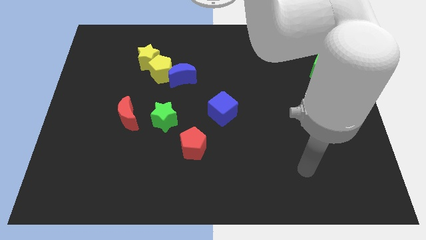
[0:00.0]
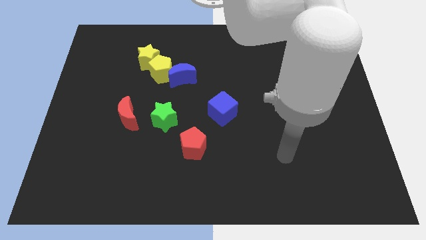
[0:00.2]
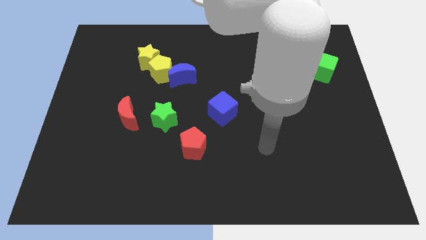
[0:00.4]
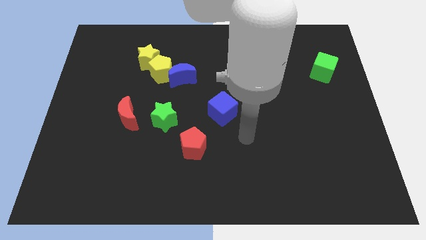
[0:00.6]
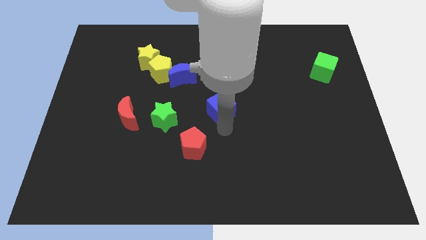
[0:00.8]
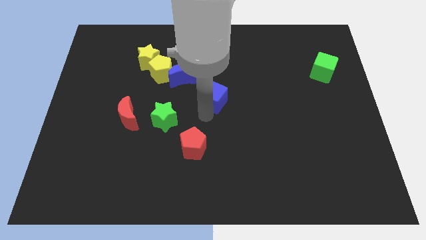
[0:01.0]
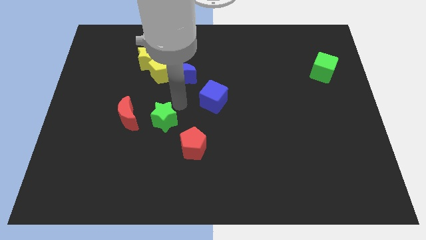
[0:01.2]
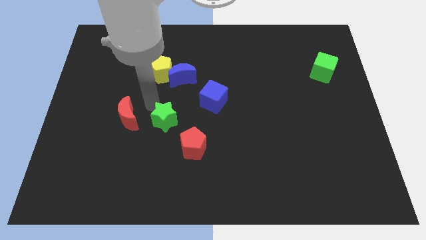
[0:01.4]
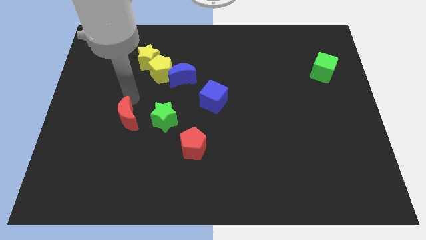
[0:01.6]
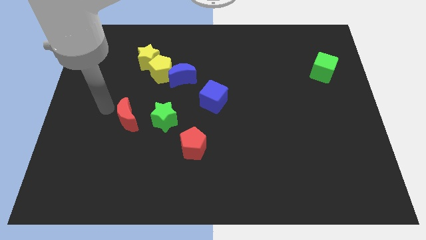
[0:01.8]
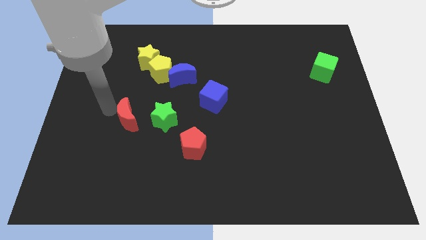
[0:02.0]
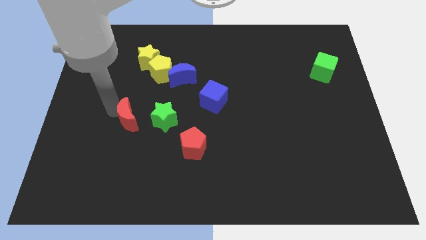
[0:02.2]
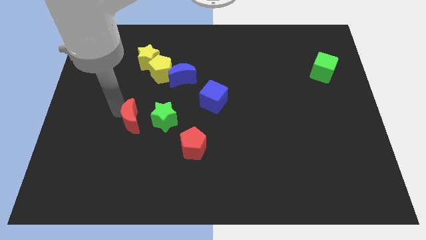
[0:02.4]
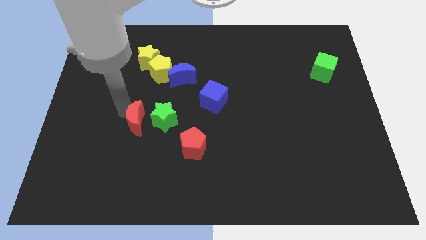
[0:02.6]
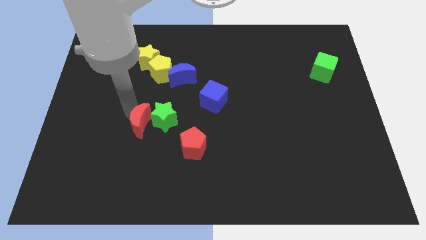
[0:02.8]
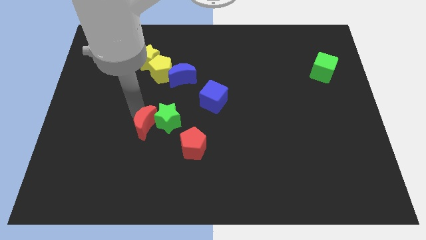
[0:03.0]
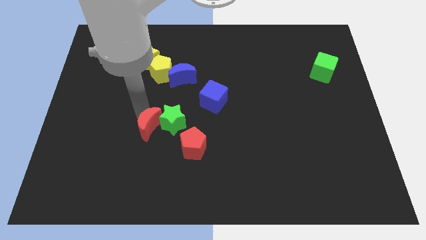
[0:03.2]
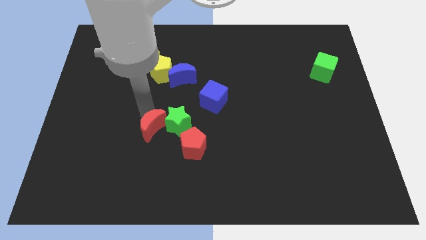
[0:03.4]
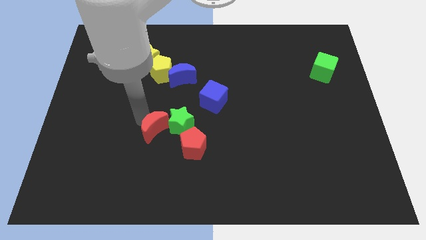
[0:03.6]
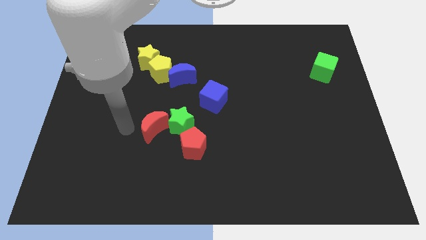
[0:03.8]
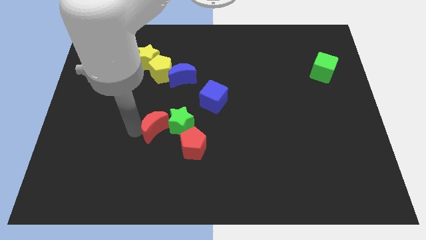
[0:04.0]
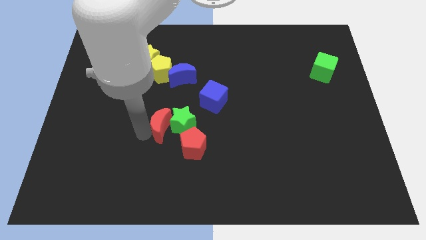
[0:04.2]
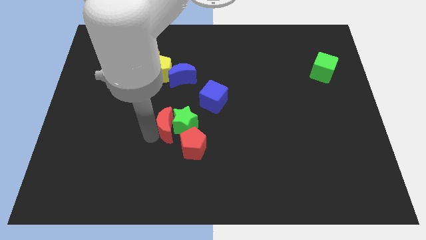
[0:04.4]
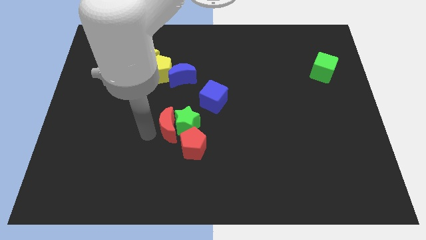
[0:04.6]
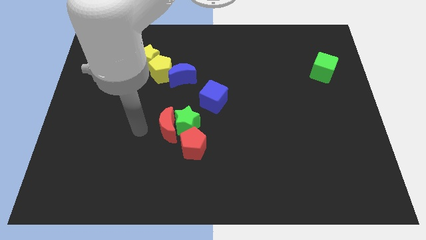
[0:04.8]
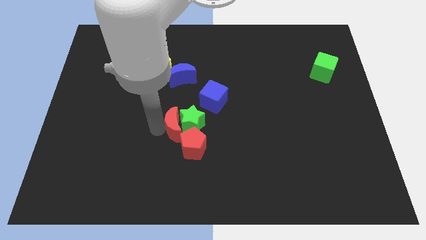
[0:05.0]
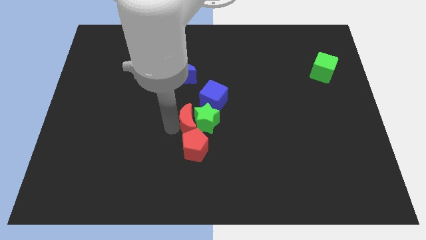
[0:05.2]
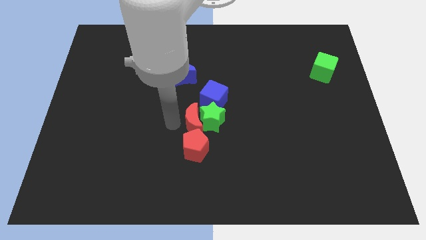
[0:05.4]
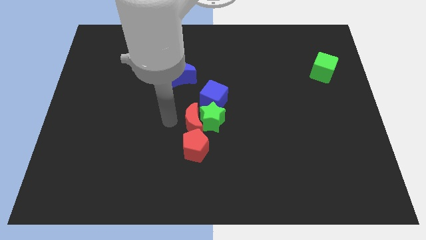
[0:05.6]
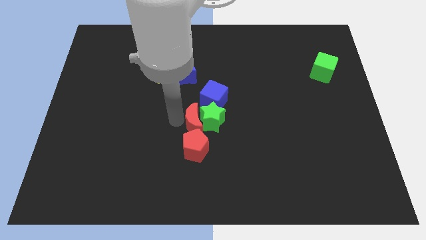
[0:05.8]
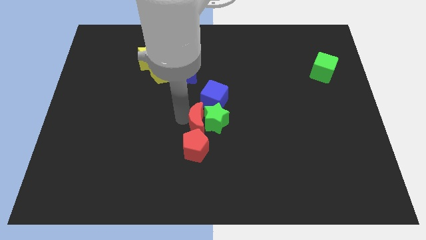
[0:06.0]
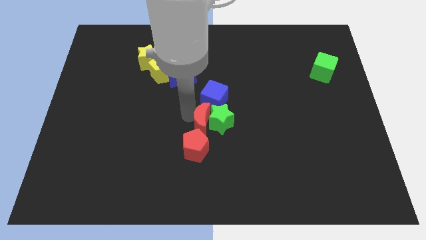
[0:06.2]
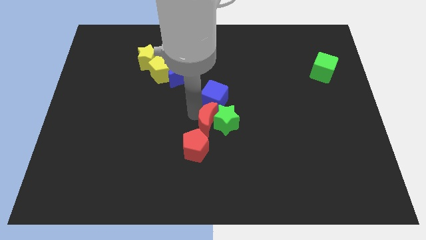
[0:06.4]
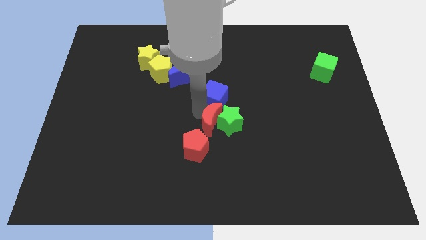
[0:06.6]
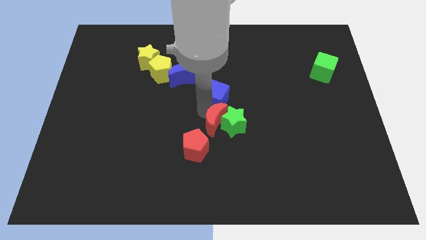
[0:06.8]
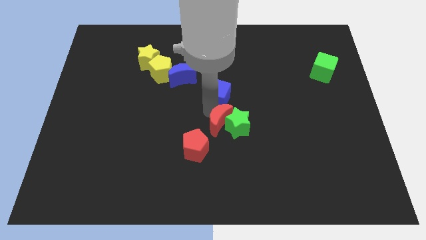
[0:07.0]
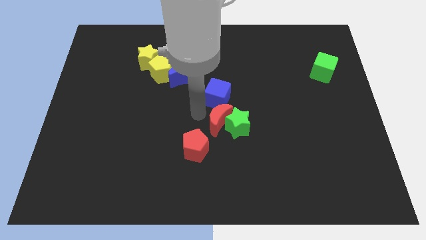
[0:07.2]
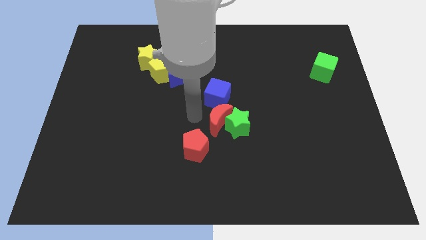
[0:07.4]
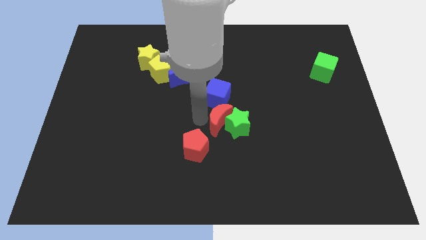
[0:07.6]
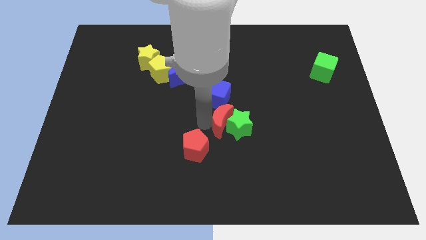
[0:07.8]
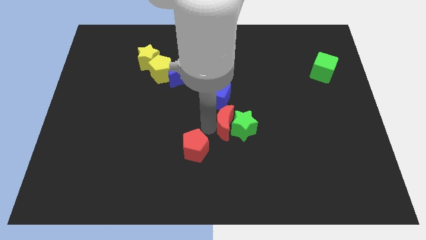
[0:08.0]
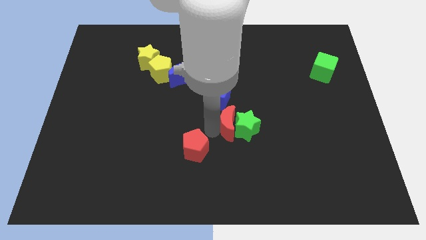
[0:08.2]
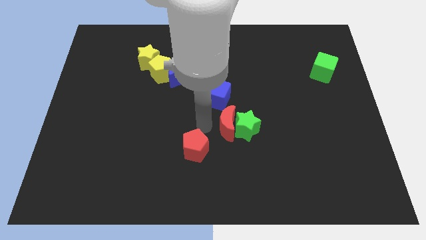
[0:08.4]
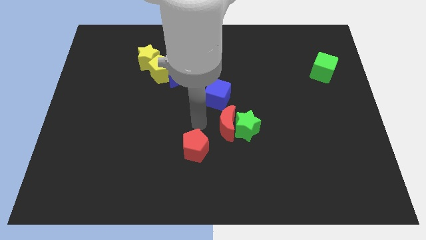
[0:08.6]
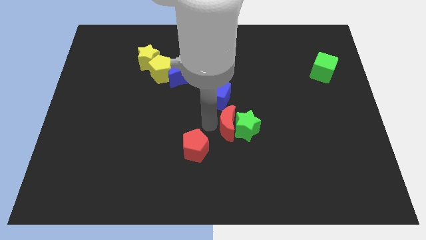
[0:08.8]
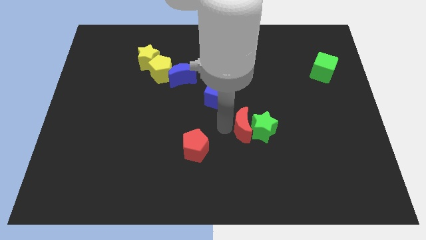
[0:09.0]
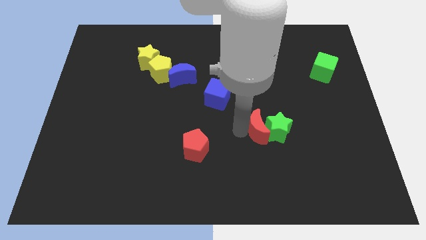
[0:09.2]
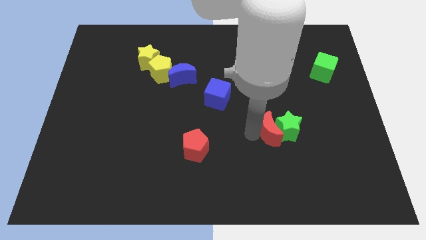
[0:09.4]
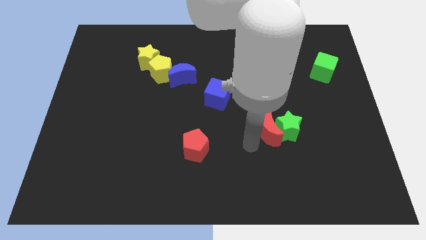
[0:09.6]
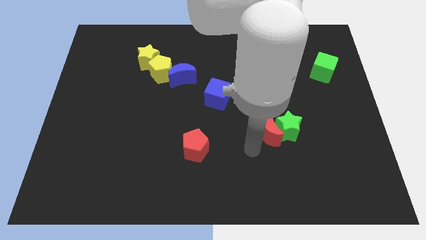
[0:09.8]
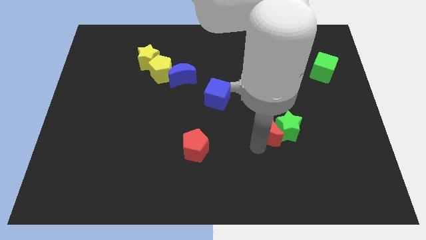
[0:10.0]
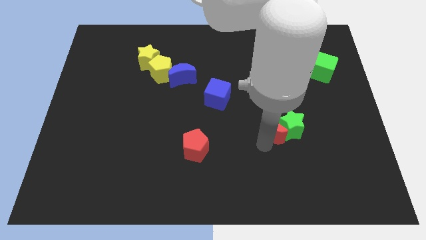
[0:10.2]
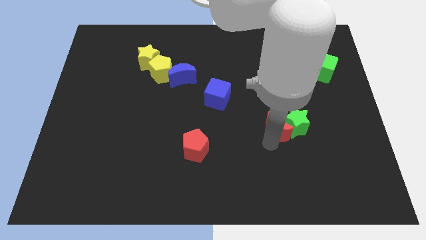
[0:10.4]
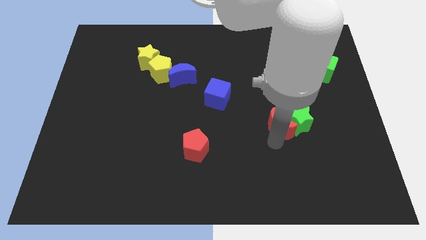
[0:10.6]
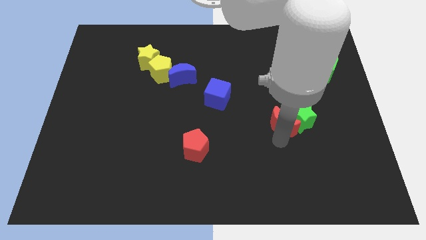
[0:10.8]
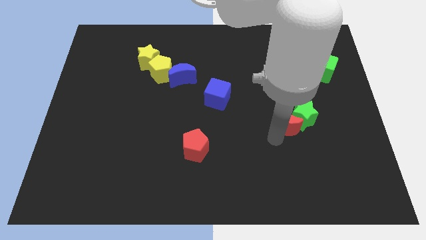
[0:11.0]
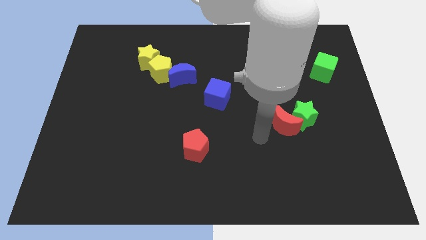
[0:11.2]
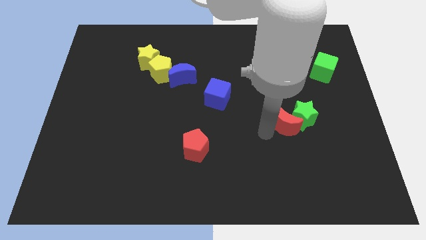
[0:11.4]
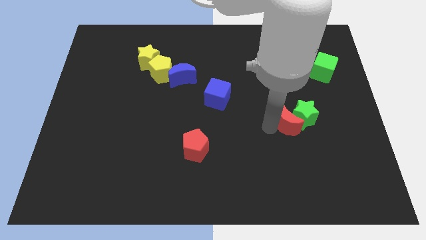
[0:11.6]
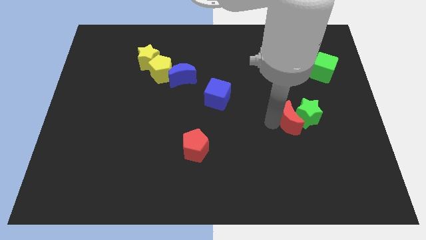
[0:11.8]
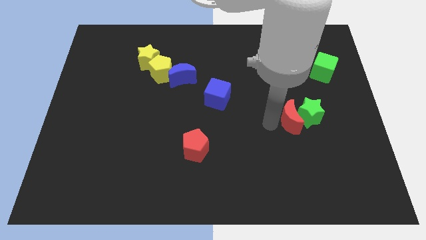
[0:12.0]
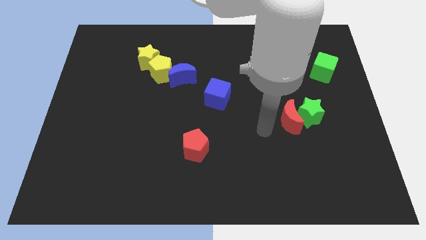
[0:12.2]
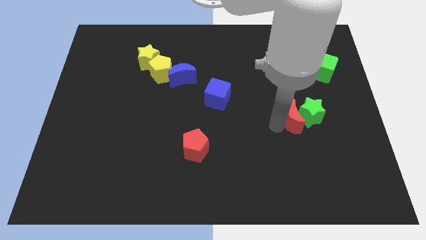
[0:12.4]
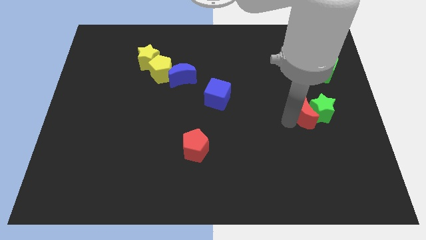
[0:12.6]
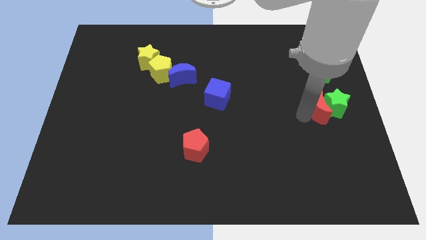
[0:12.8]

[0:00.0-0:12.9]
move the red moon to the bottom side of the green cube

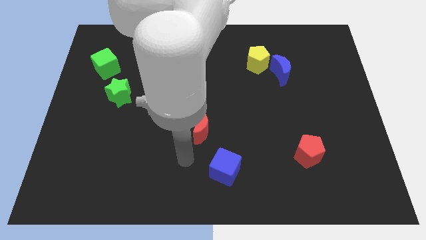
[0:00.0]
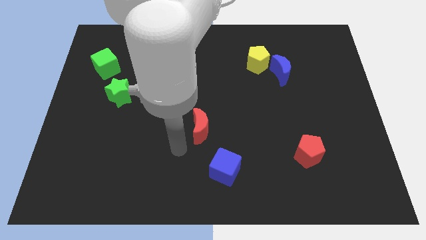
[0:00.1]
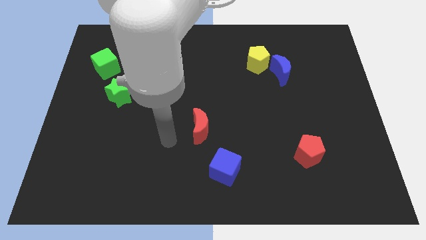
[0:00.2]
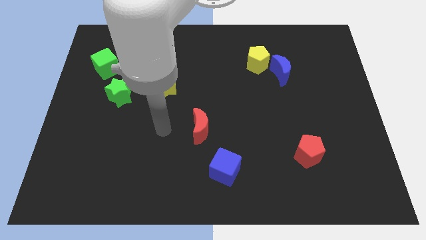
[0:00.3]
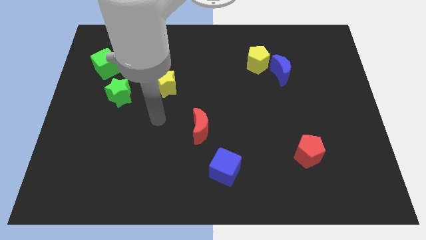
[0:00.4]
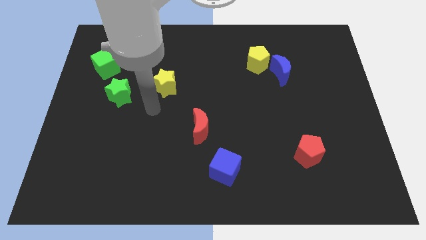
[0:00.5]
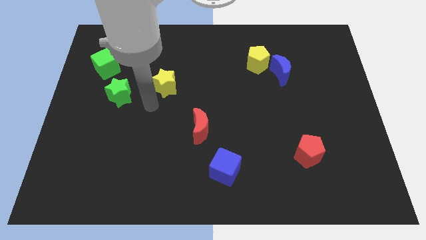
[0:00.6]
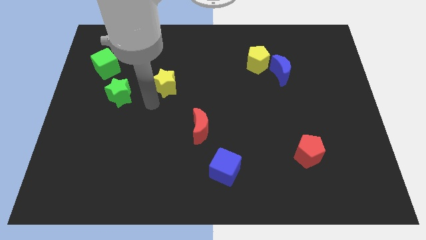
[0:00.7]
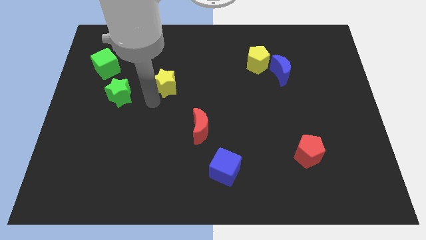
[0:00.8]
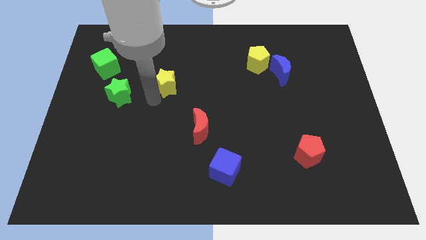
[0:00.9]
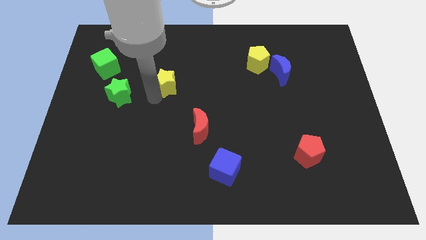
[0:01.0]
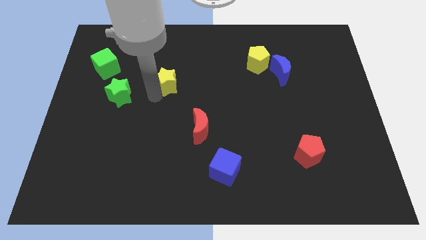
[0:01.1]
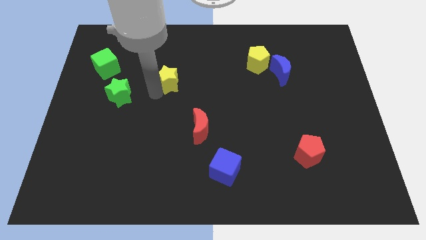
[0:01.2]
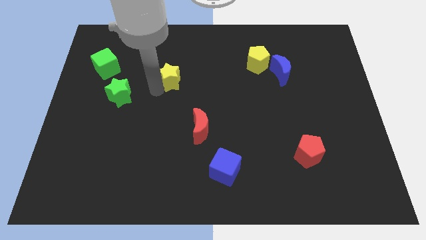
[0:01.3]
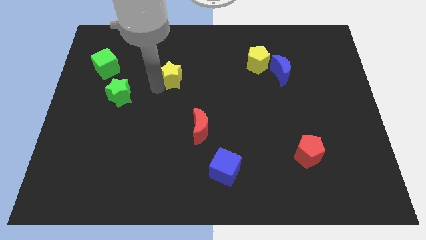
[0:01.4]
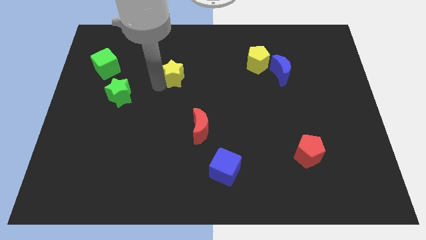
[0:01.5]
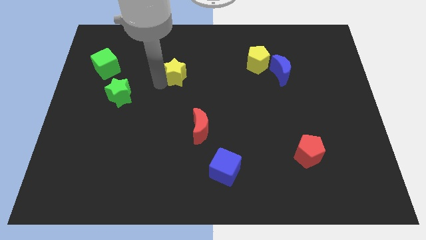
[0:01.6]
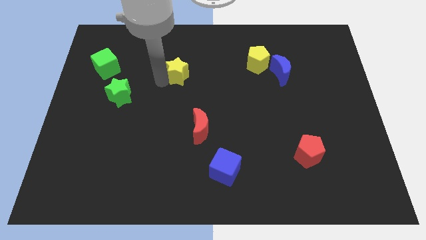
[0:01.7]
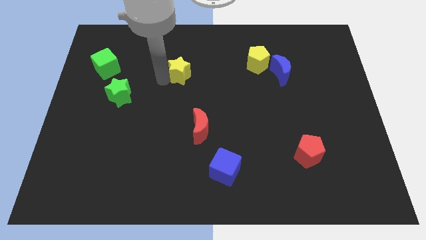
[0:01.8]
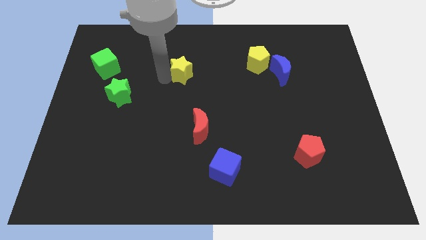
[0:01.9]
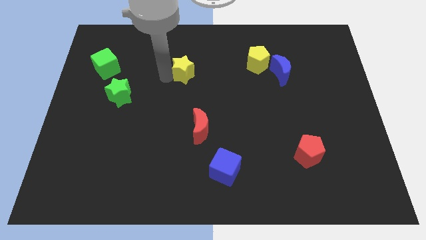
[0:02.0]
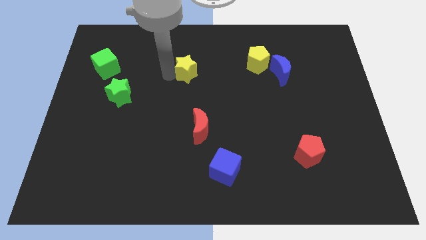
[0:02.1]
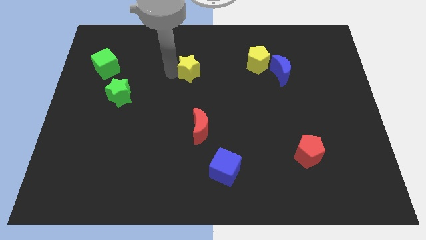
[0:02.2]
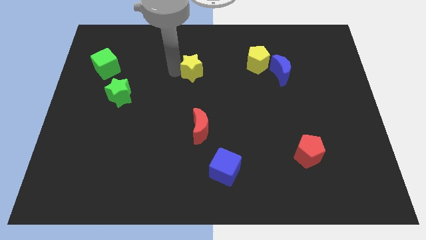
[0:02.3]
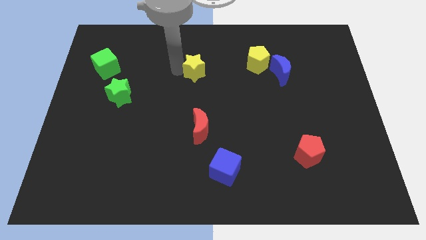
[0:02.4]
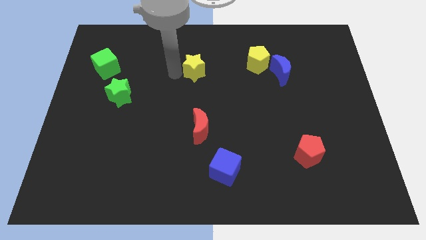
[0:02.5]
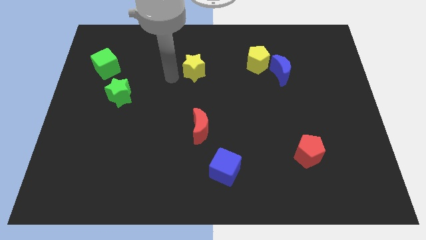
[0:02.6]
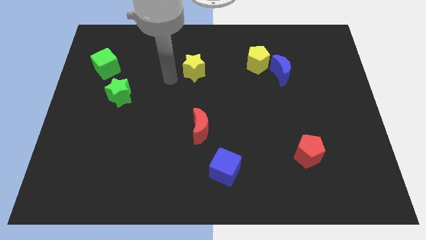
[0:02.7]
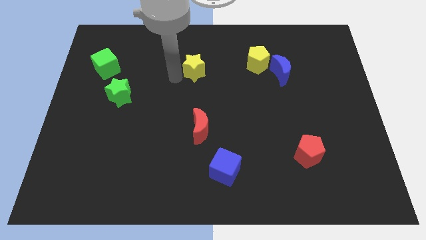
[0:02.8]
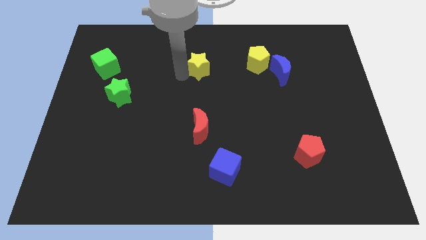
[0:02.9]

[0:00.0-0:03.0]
slide the yellow star to the left of the yellow pentagon
